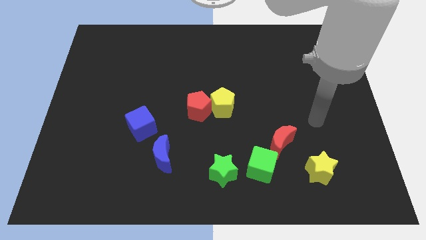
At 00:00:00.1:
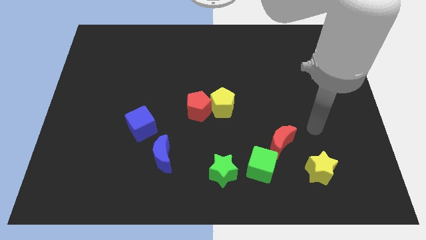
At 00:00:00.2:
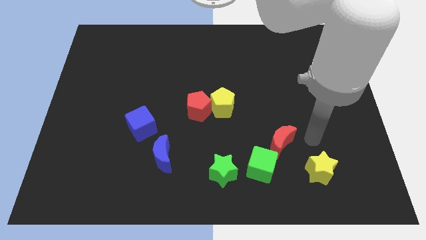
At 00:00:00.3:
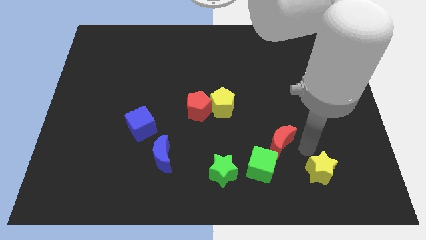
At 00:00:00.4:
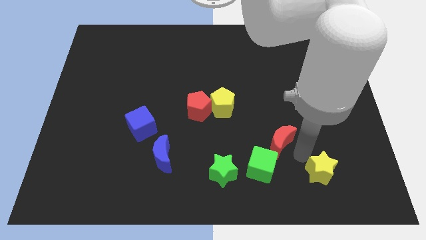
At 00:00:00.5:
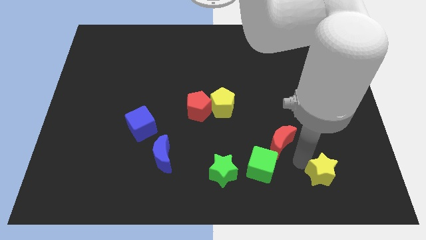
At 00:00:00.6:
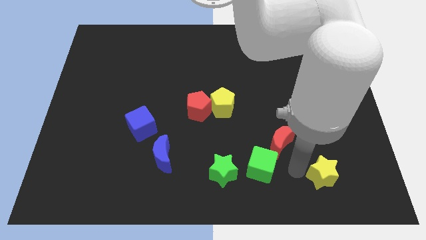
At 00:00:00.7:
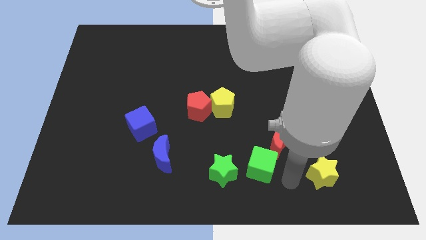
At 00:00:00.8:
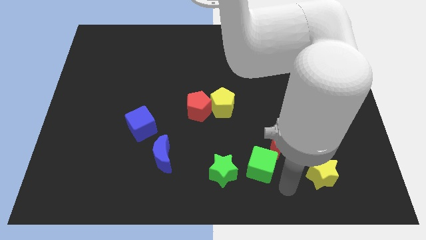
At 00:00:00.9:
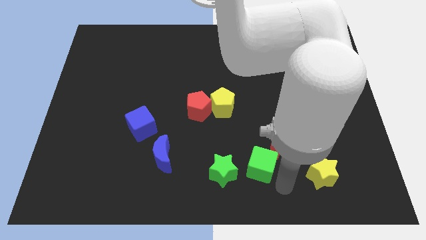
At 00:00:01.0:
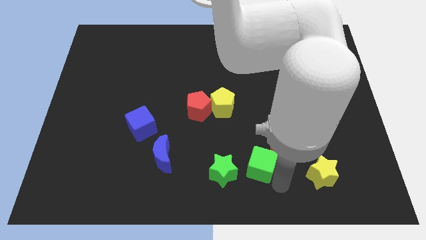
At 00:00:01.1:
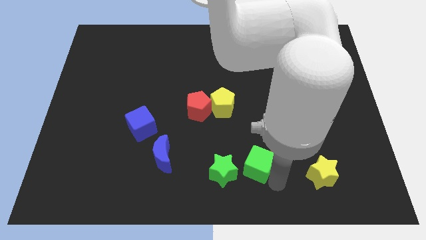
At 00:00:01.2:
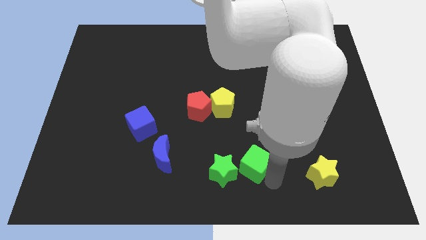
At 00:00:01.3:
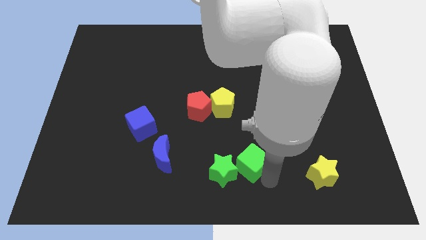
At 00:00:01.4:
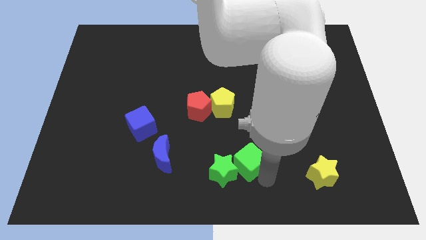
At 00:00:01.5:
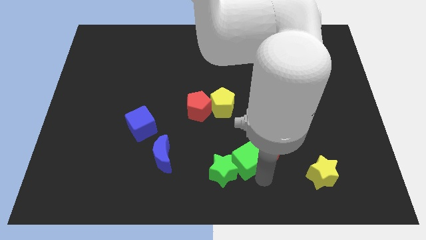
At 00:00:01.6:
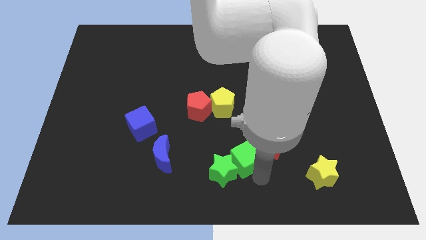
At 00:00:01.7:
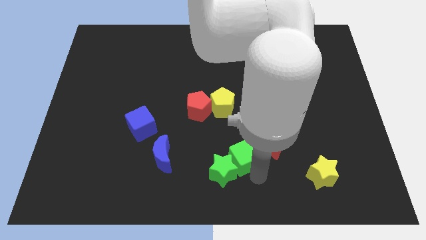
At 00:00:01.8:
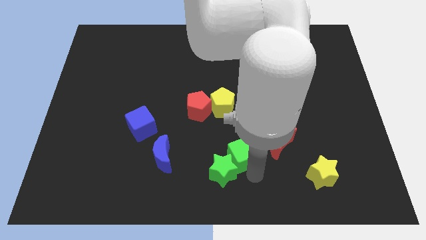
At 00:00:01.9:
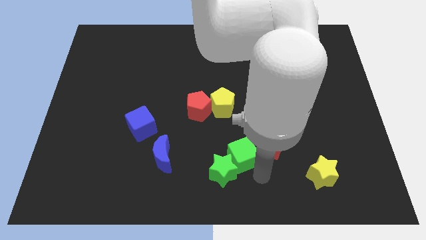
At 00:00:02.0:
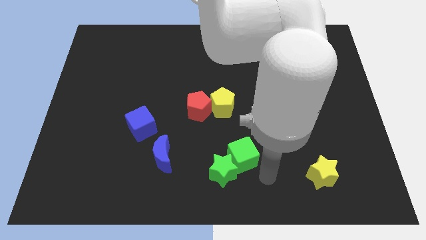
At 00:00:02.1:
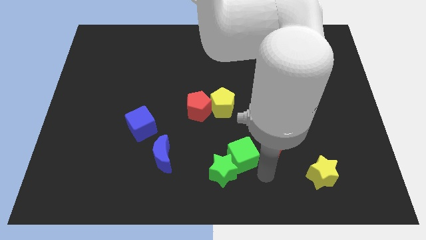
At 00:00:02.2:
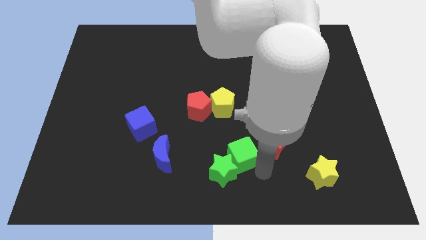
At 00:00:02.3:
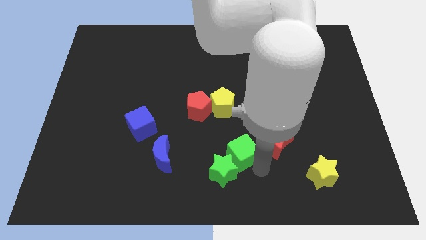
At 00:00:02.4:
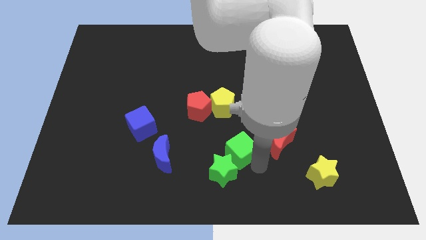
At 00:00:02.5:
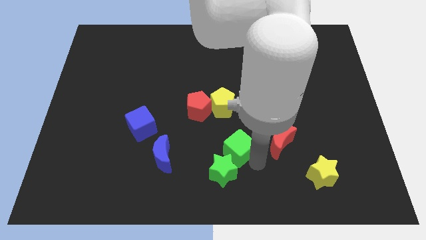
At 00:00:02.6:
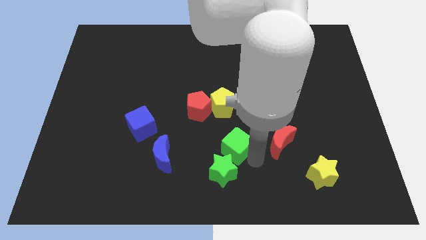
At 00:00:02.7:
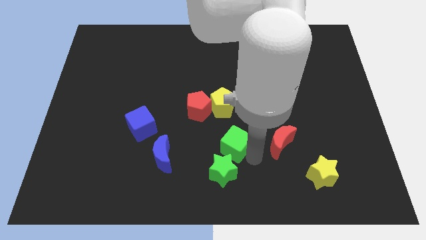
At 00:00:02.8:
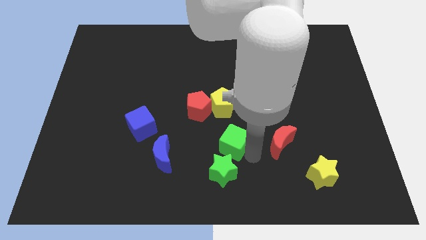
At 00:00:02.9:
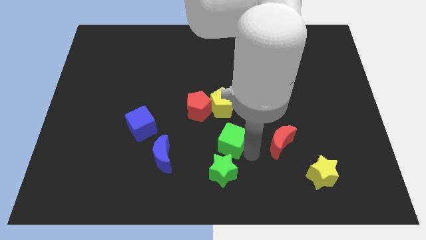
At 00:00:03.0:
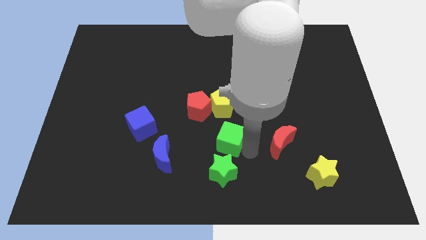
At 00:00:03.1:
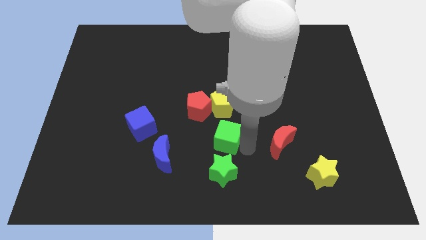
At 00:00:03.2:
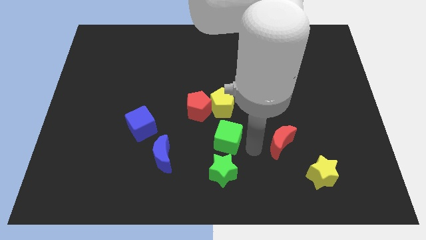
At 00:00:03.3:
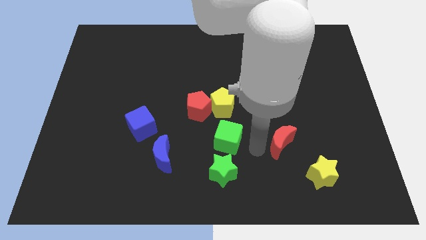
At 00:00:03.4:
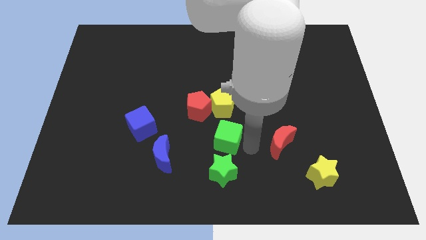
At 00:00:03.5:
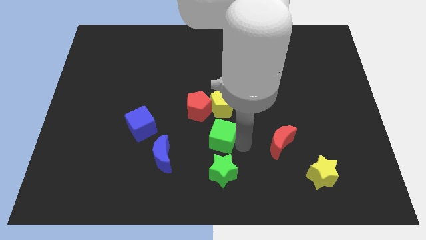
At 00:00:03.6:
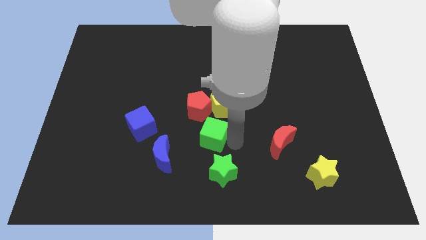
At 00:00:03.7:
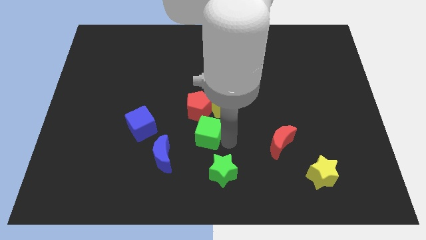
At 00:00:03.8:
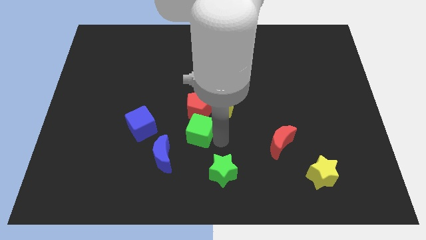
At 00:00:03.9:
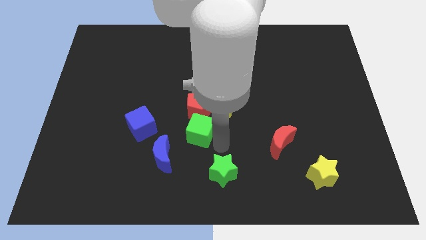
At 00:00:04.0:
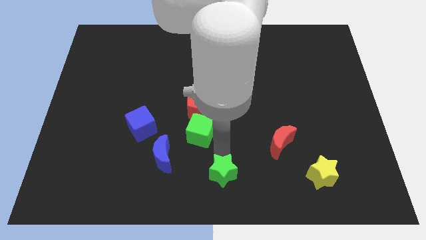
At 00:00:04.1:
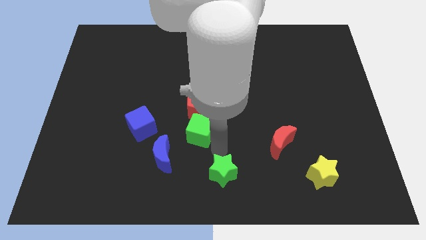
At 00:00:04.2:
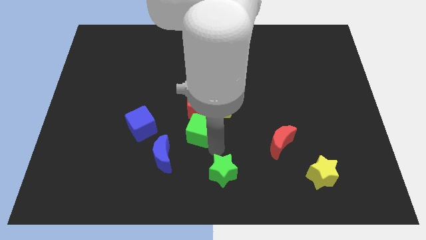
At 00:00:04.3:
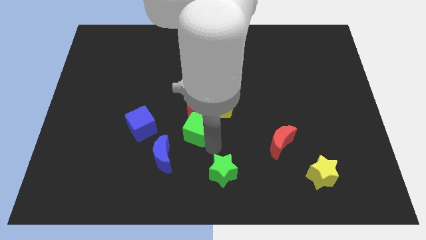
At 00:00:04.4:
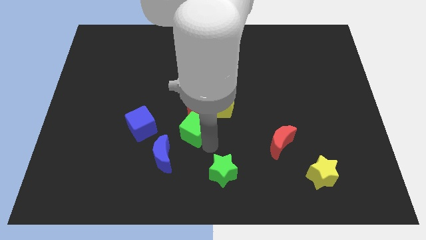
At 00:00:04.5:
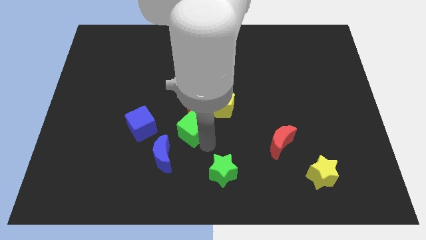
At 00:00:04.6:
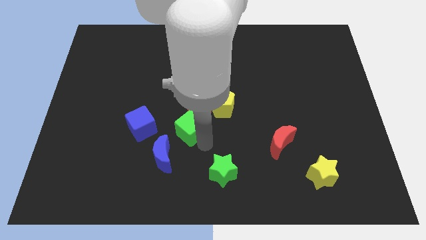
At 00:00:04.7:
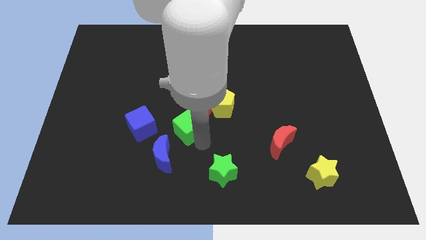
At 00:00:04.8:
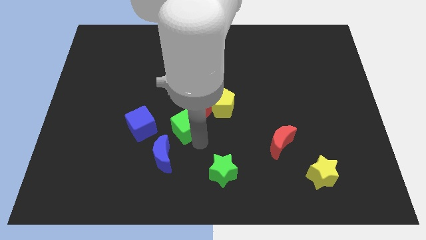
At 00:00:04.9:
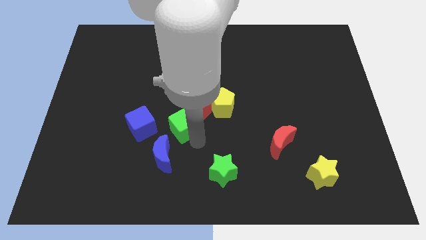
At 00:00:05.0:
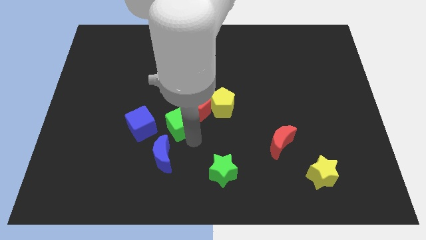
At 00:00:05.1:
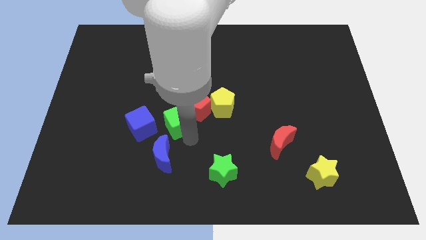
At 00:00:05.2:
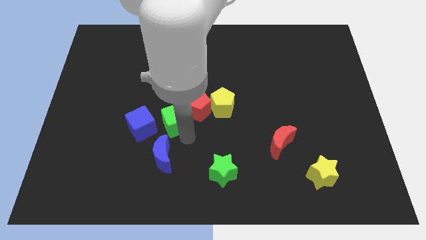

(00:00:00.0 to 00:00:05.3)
move the green cube upwards and to the left diagonally

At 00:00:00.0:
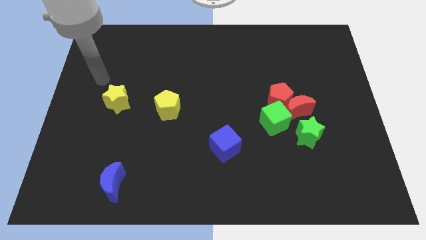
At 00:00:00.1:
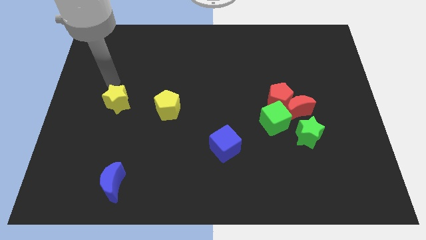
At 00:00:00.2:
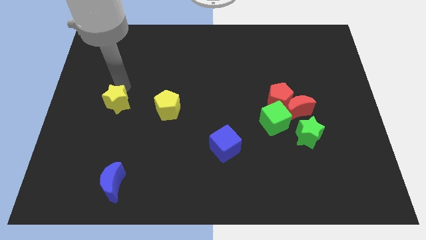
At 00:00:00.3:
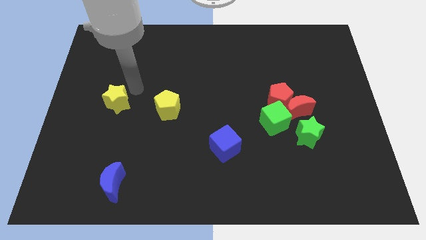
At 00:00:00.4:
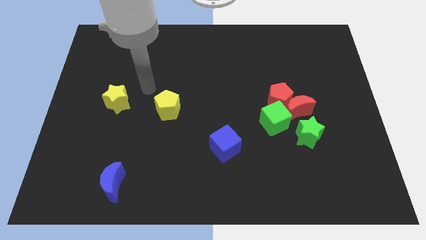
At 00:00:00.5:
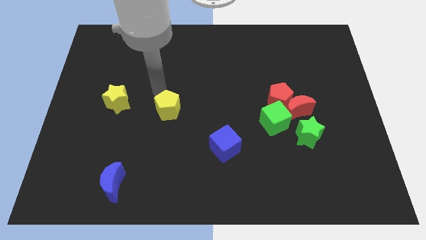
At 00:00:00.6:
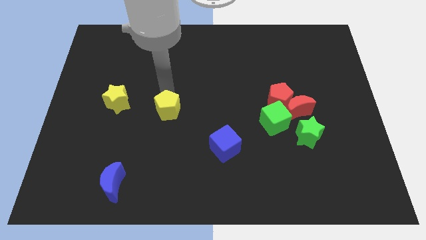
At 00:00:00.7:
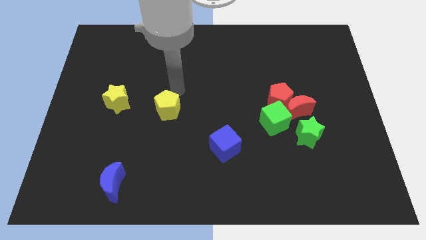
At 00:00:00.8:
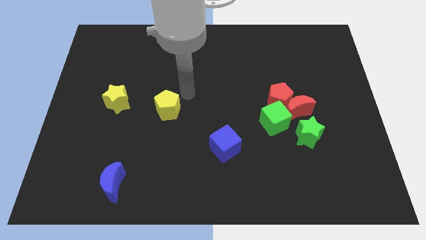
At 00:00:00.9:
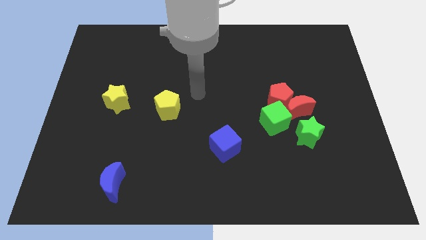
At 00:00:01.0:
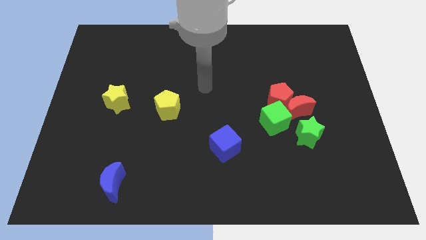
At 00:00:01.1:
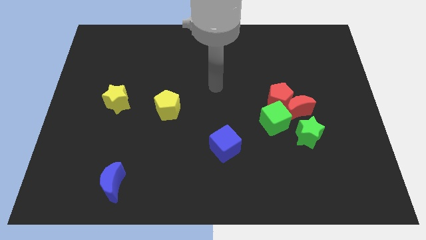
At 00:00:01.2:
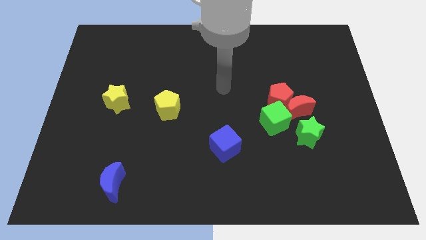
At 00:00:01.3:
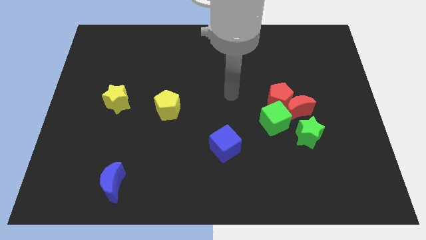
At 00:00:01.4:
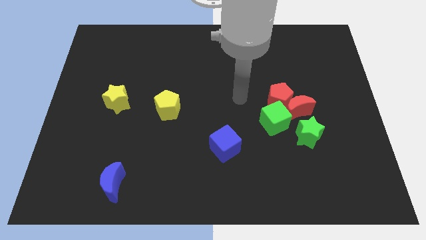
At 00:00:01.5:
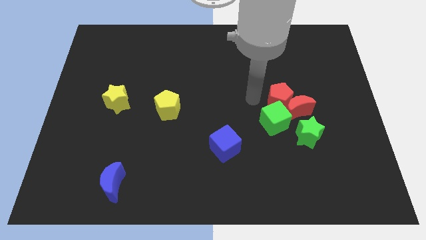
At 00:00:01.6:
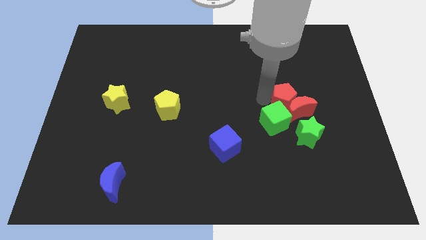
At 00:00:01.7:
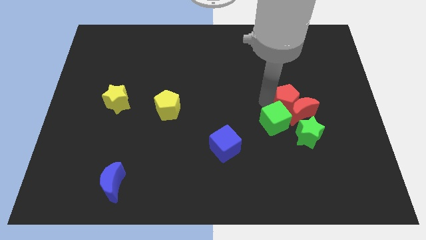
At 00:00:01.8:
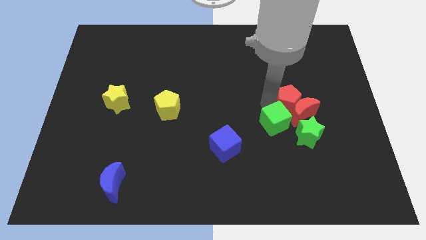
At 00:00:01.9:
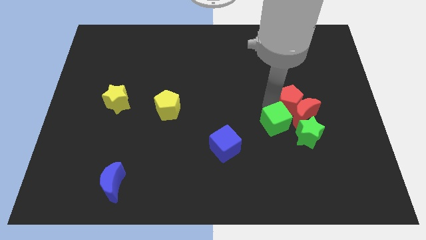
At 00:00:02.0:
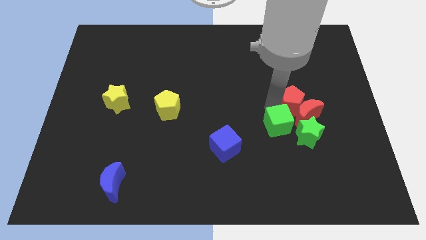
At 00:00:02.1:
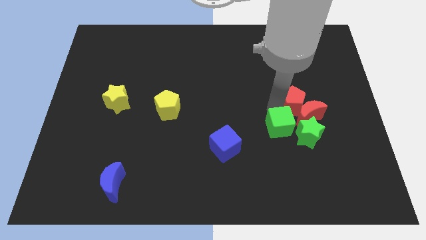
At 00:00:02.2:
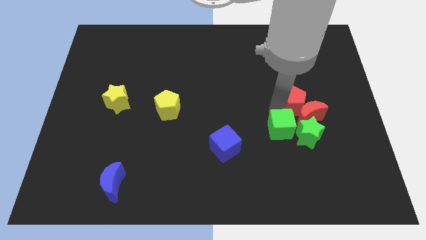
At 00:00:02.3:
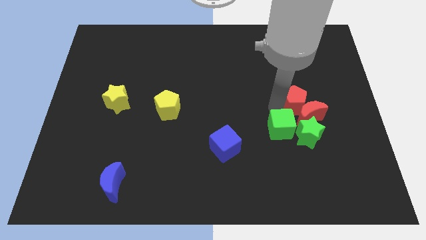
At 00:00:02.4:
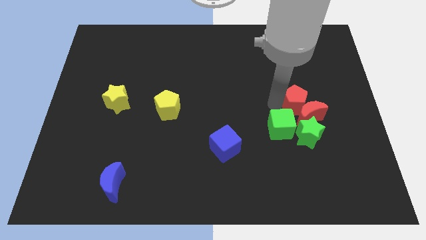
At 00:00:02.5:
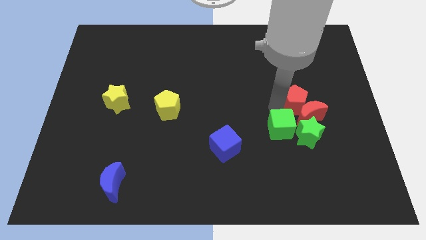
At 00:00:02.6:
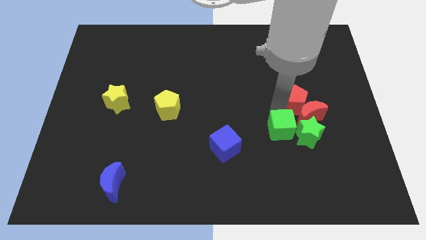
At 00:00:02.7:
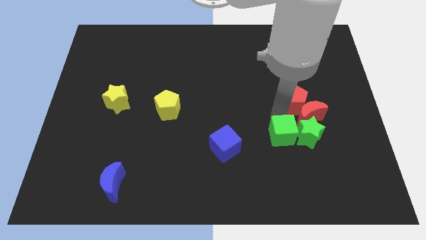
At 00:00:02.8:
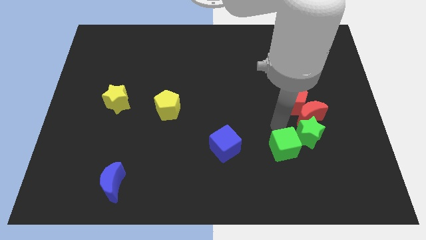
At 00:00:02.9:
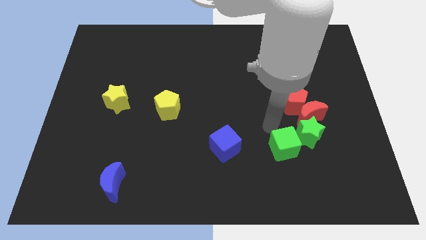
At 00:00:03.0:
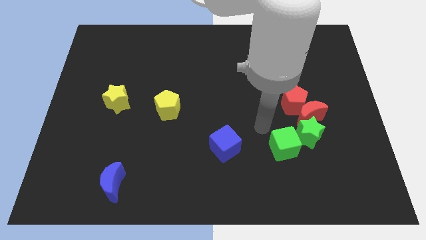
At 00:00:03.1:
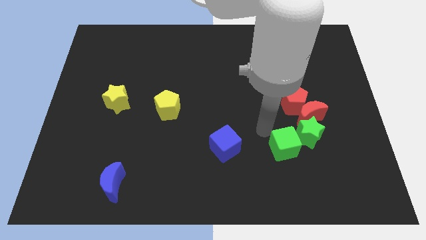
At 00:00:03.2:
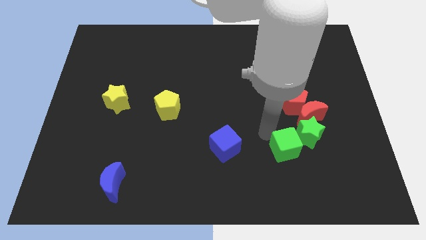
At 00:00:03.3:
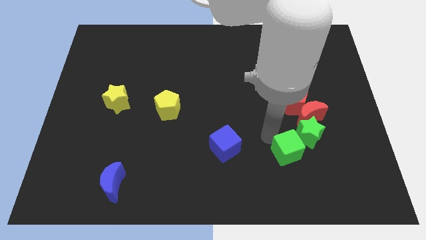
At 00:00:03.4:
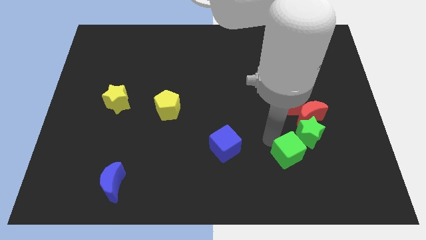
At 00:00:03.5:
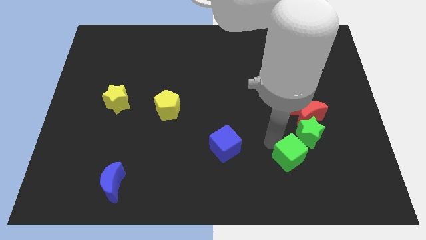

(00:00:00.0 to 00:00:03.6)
push the green cube somewhat down and to the right
